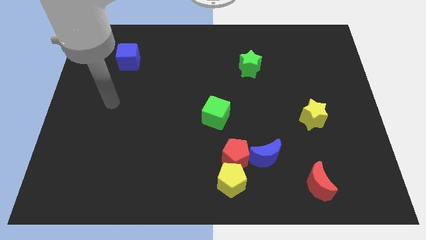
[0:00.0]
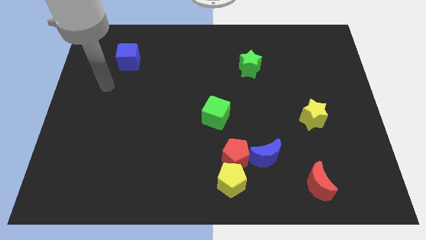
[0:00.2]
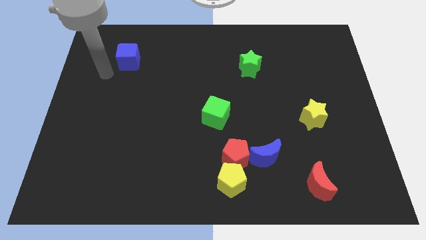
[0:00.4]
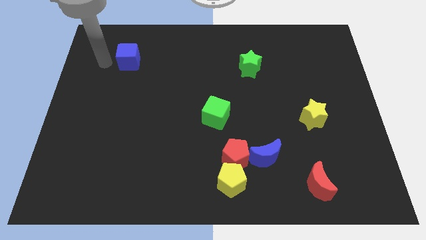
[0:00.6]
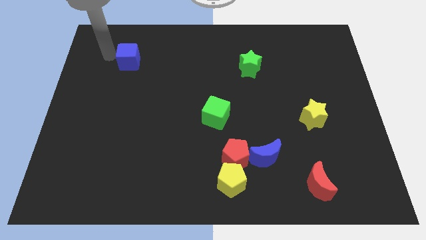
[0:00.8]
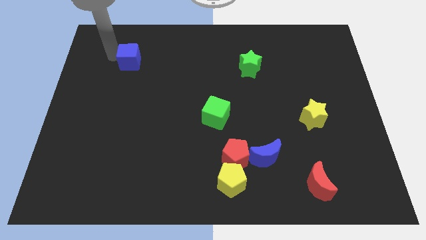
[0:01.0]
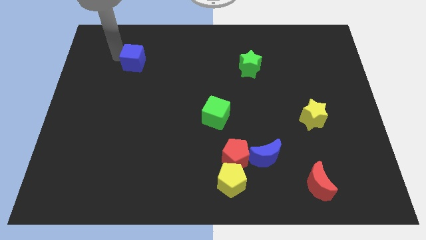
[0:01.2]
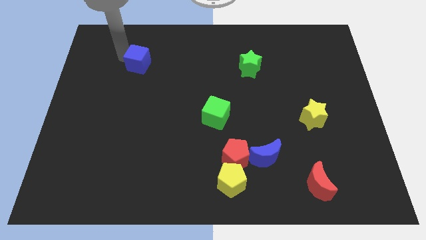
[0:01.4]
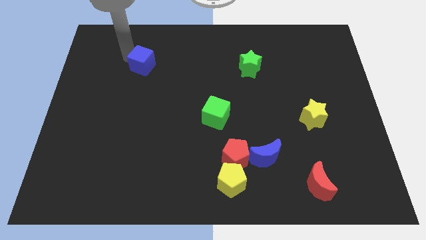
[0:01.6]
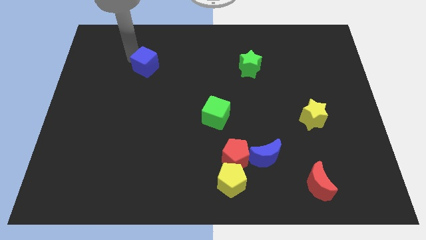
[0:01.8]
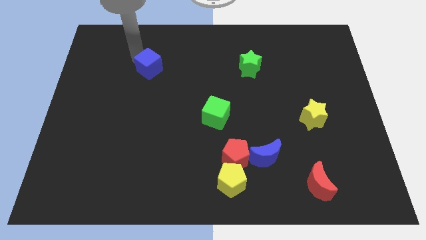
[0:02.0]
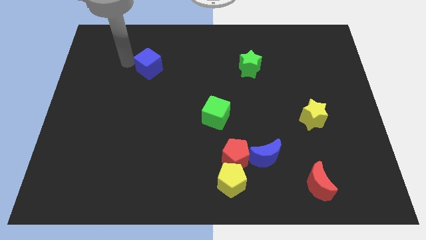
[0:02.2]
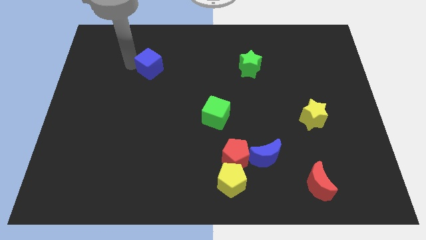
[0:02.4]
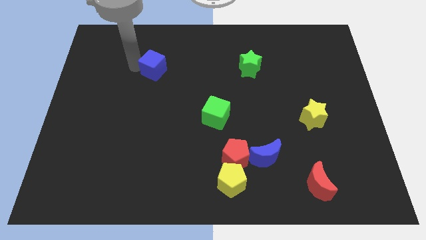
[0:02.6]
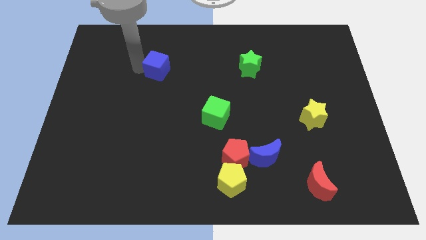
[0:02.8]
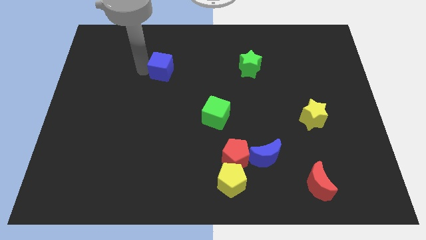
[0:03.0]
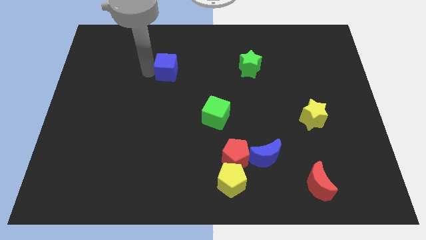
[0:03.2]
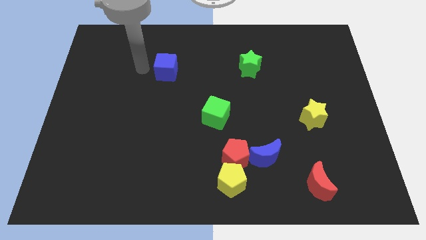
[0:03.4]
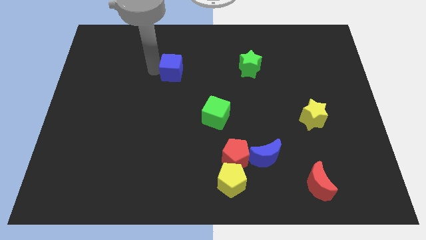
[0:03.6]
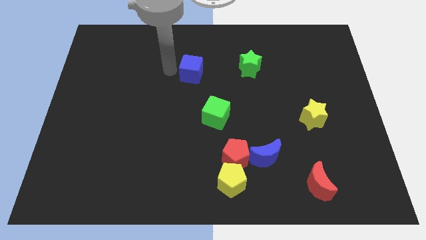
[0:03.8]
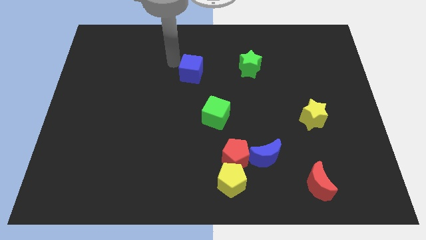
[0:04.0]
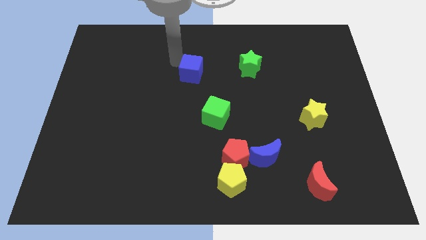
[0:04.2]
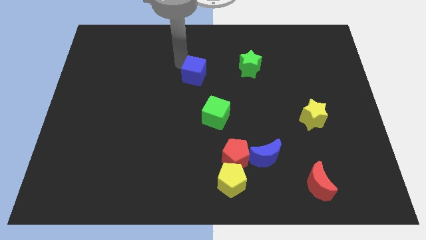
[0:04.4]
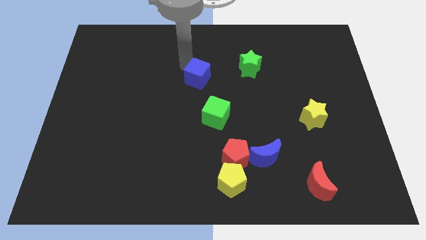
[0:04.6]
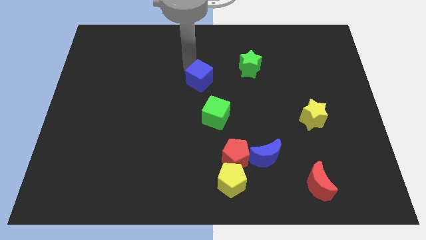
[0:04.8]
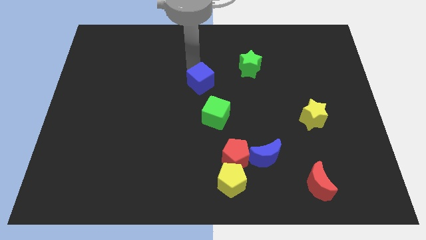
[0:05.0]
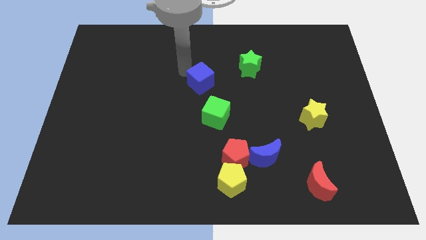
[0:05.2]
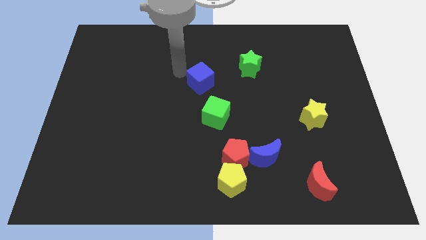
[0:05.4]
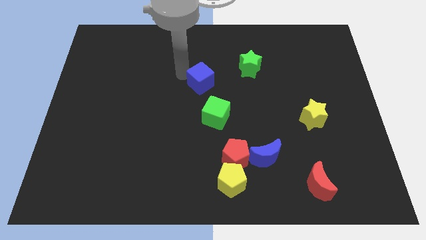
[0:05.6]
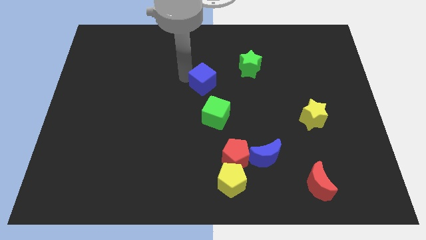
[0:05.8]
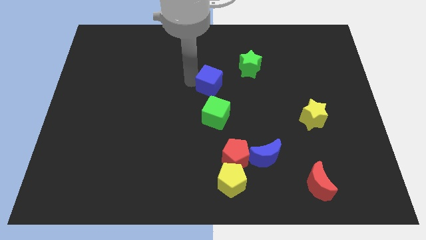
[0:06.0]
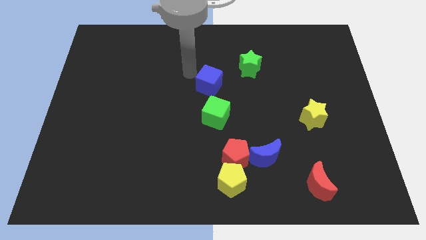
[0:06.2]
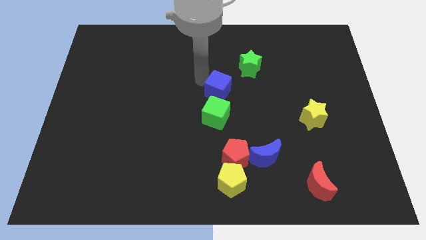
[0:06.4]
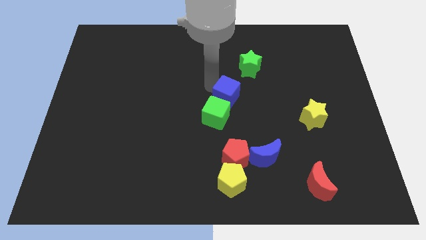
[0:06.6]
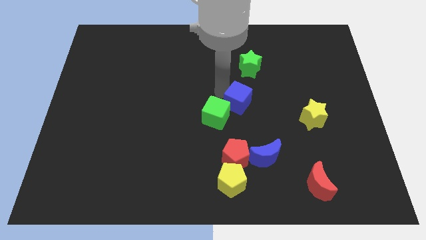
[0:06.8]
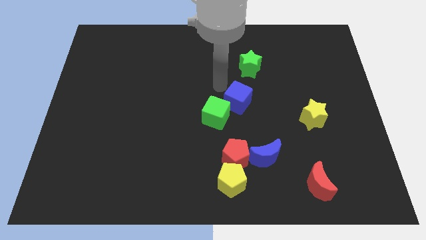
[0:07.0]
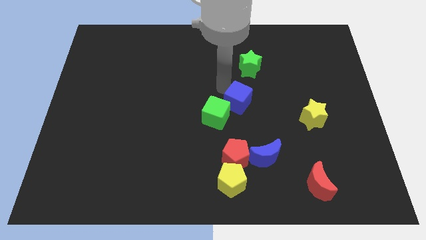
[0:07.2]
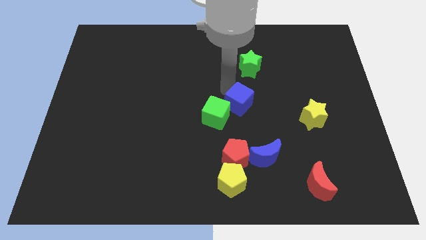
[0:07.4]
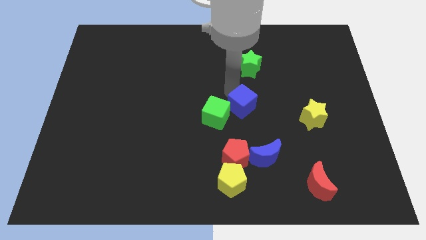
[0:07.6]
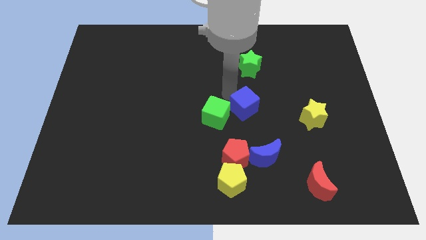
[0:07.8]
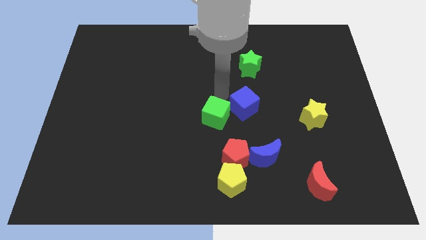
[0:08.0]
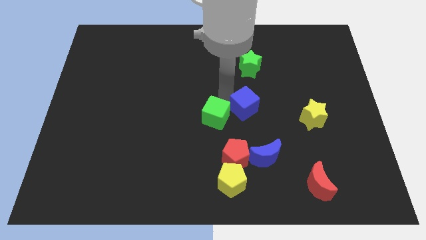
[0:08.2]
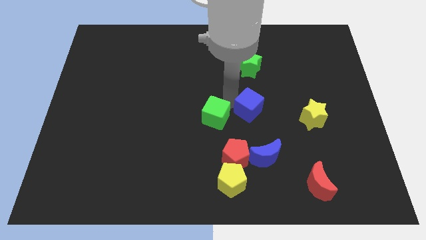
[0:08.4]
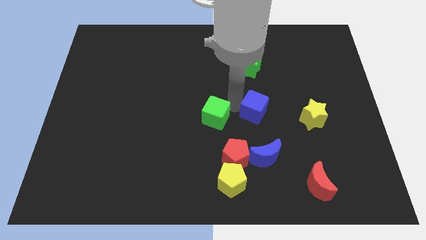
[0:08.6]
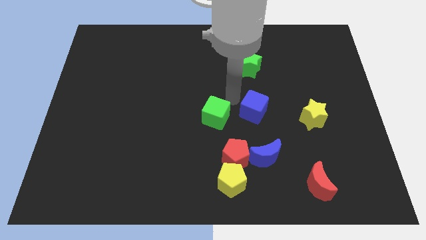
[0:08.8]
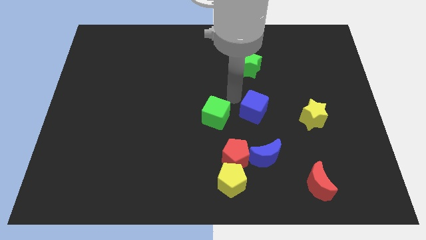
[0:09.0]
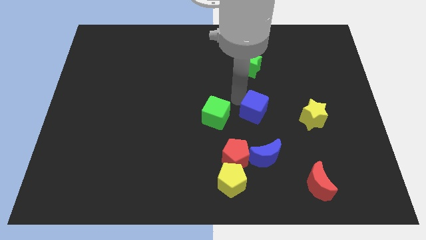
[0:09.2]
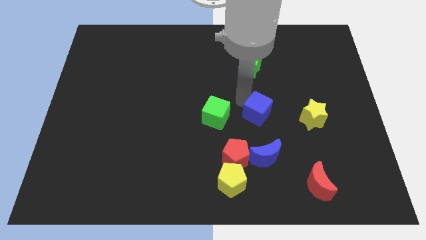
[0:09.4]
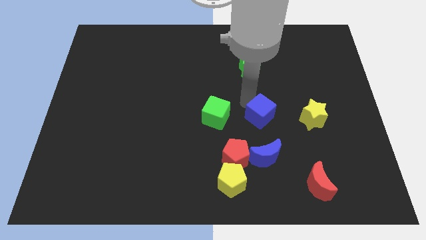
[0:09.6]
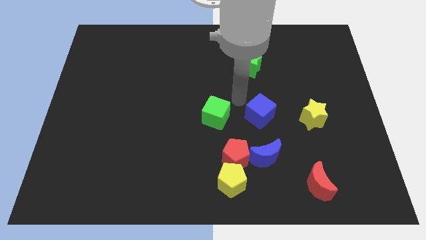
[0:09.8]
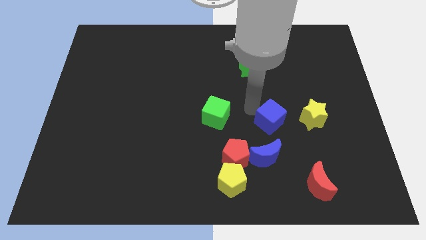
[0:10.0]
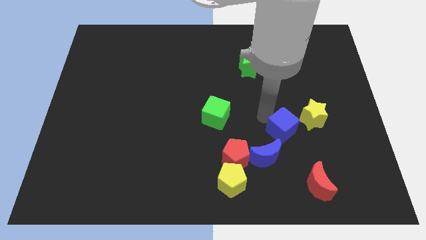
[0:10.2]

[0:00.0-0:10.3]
move the blue cube to the bottom left of the yellow star

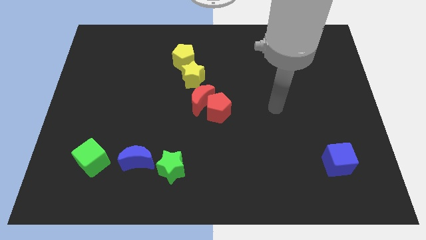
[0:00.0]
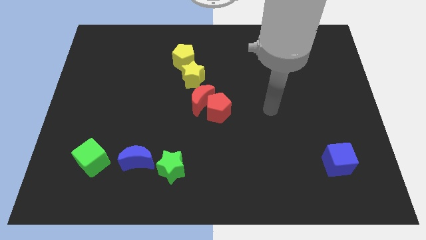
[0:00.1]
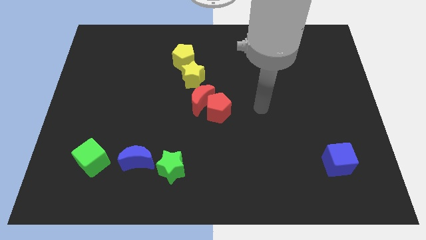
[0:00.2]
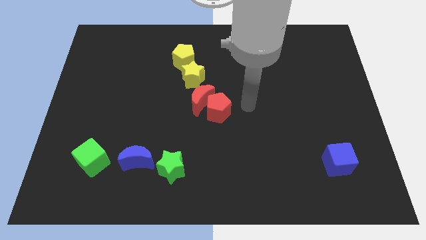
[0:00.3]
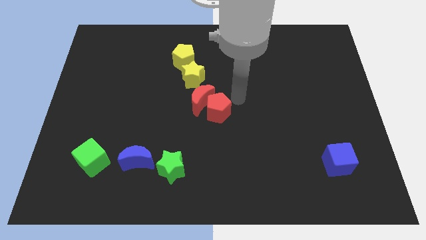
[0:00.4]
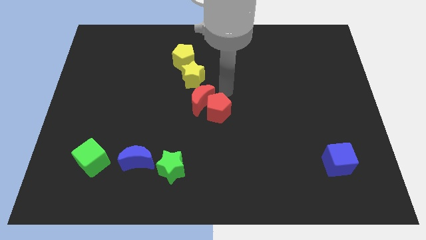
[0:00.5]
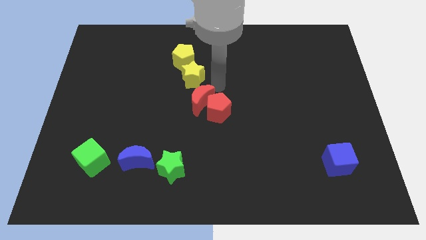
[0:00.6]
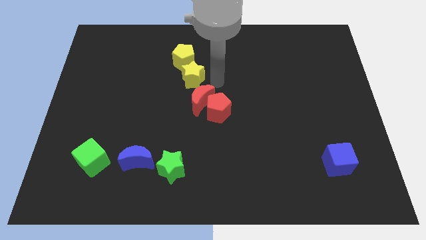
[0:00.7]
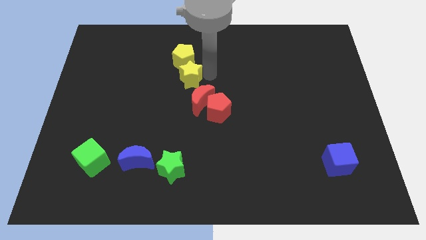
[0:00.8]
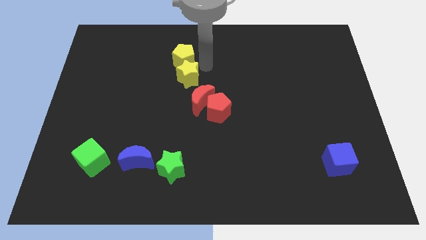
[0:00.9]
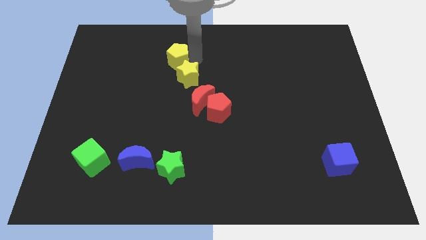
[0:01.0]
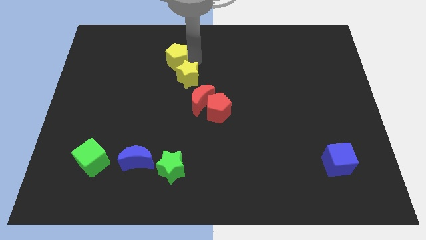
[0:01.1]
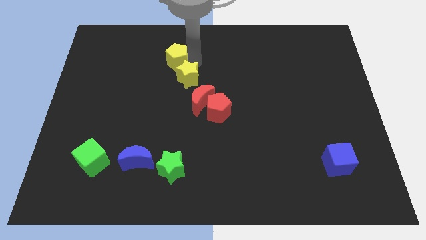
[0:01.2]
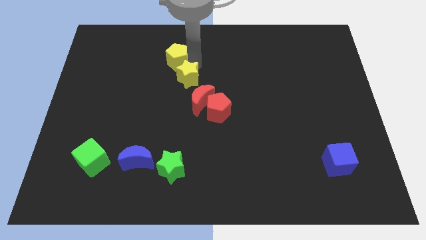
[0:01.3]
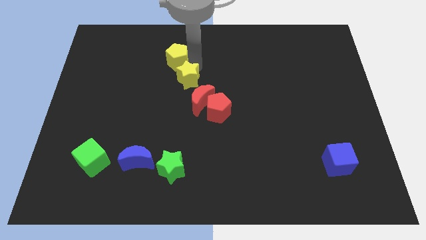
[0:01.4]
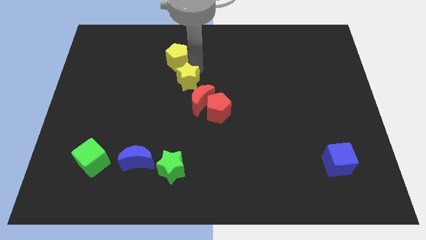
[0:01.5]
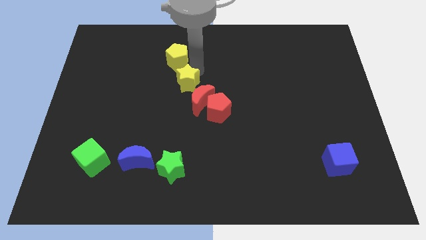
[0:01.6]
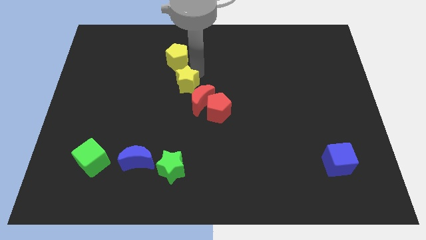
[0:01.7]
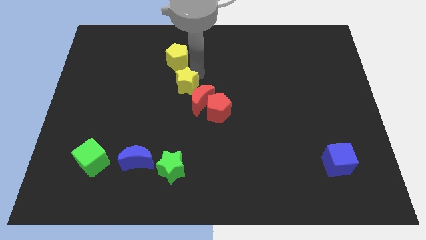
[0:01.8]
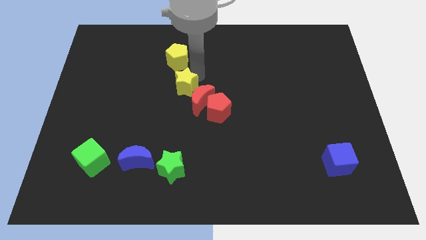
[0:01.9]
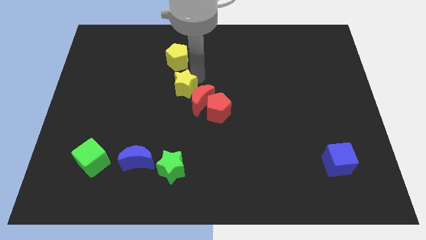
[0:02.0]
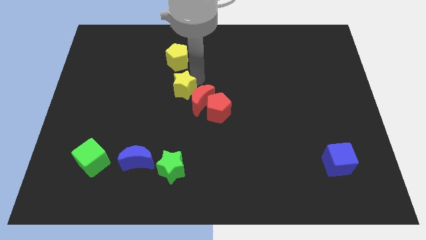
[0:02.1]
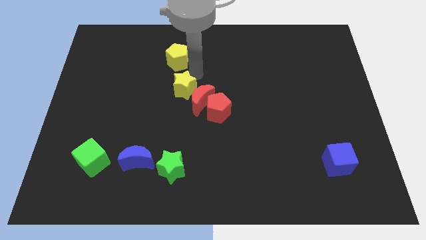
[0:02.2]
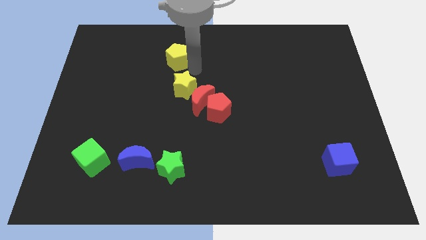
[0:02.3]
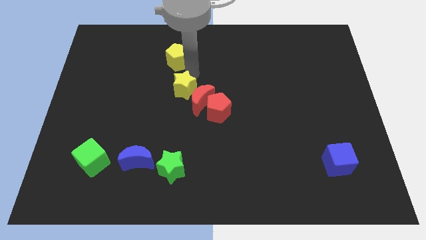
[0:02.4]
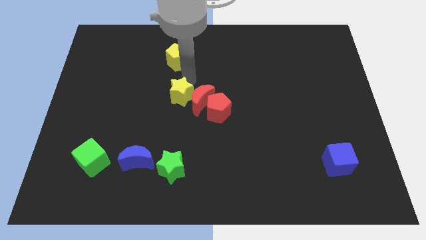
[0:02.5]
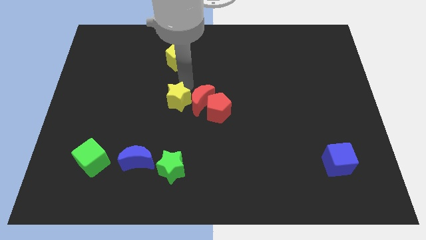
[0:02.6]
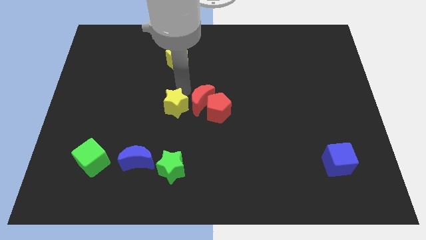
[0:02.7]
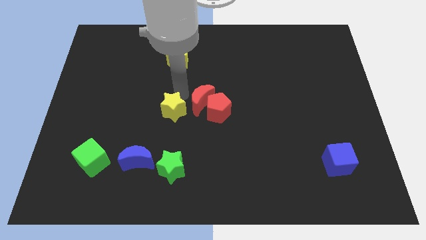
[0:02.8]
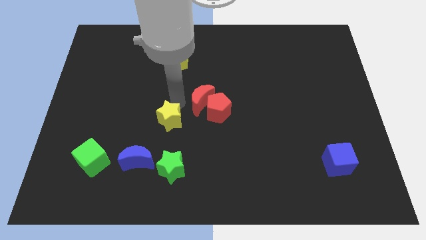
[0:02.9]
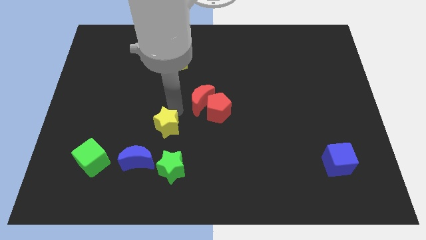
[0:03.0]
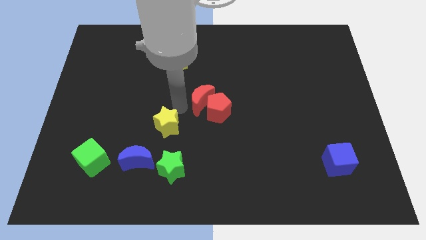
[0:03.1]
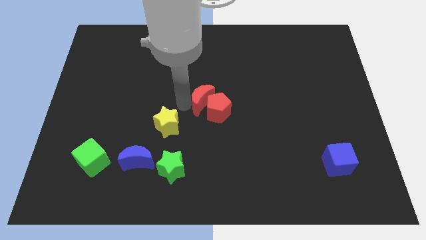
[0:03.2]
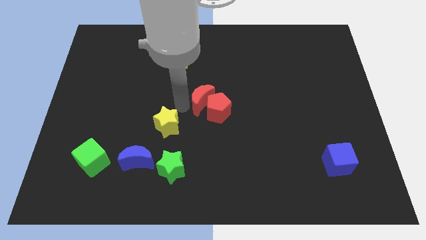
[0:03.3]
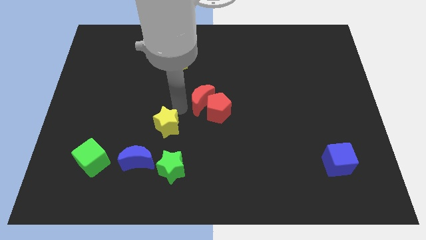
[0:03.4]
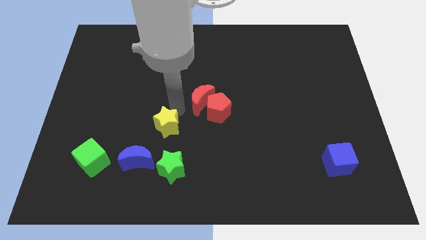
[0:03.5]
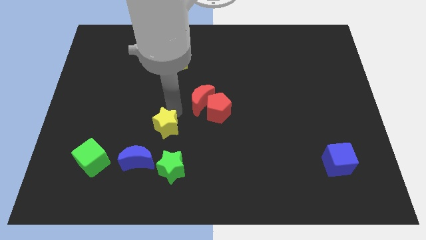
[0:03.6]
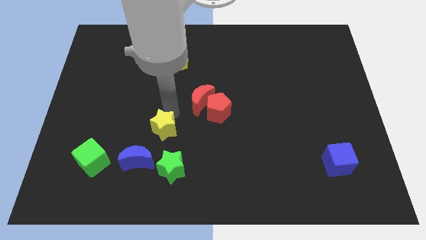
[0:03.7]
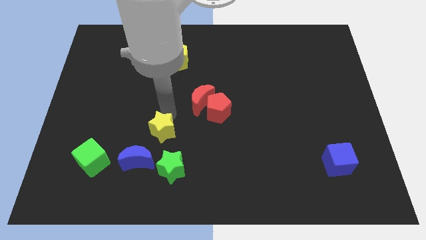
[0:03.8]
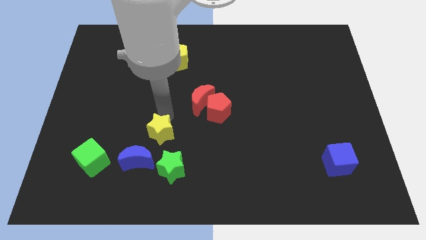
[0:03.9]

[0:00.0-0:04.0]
push the yellow star to the top left side of the green star
